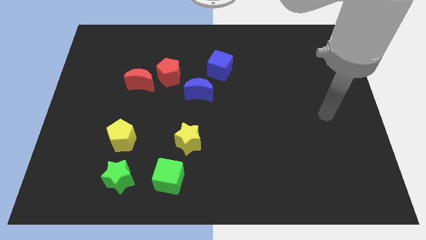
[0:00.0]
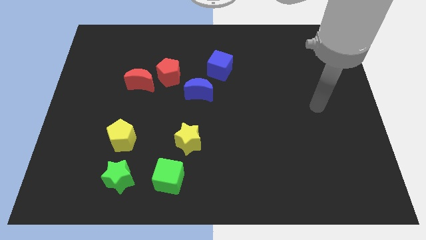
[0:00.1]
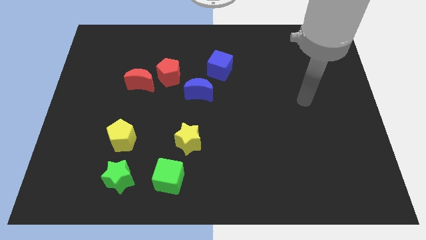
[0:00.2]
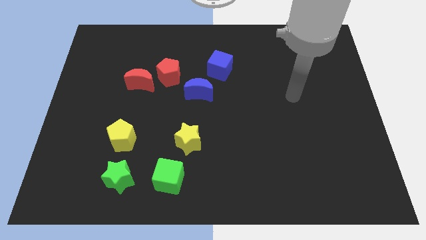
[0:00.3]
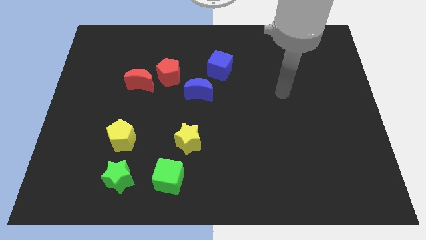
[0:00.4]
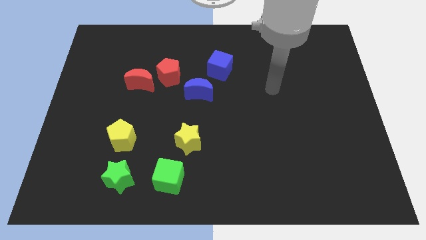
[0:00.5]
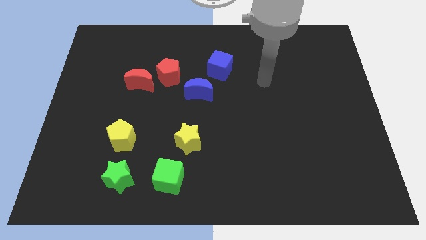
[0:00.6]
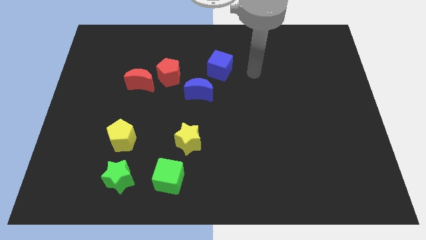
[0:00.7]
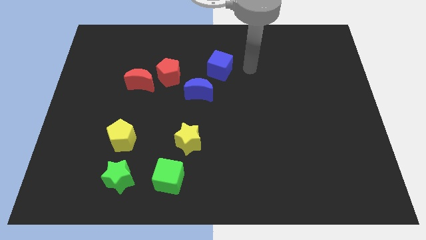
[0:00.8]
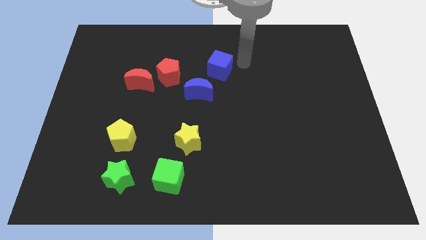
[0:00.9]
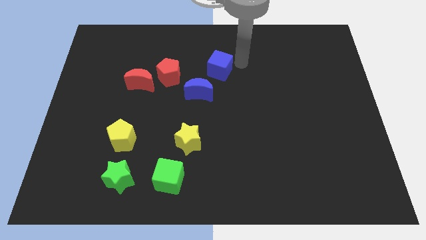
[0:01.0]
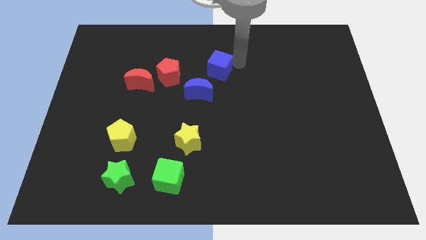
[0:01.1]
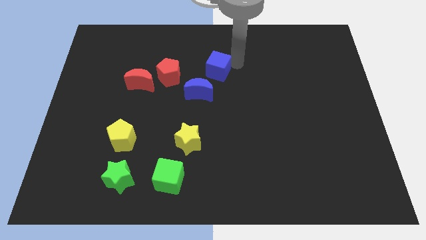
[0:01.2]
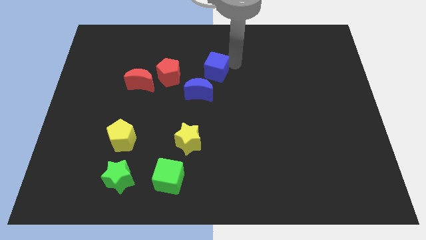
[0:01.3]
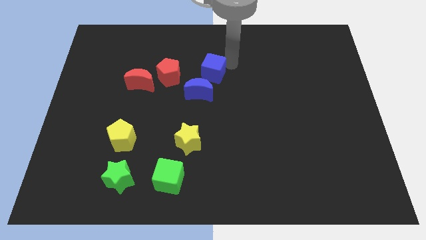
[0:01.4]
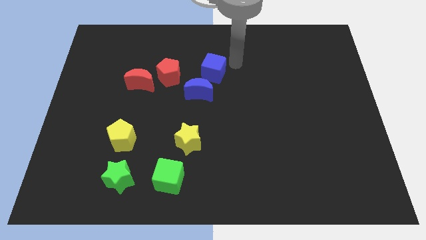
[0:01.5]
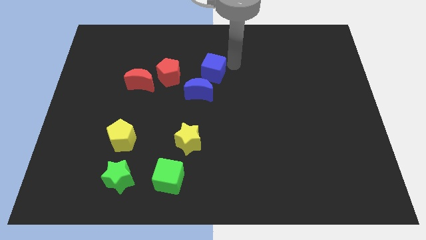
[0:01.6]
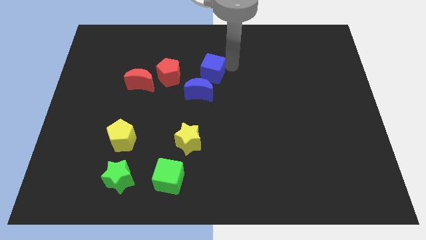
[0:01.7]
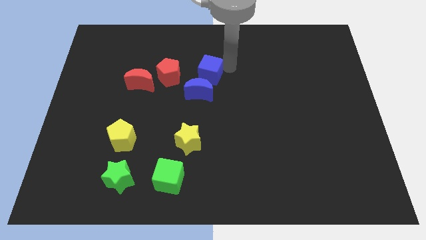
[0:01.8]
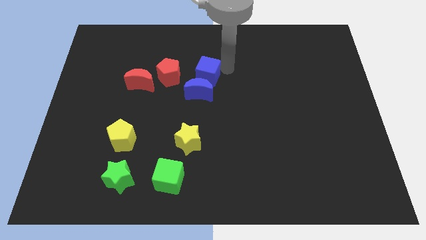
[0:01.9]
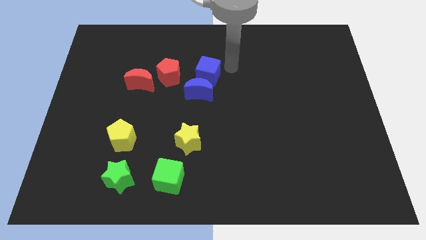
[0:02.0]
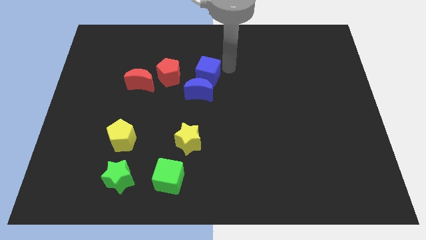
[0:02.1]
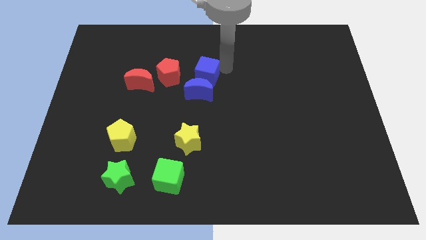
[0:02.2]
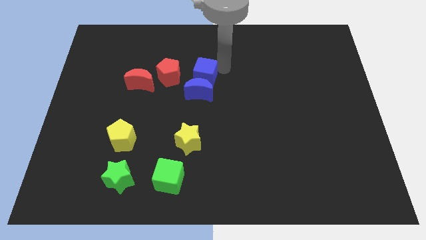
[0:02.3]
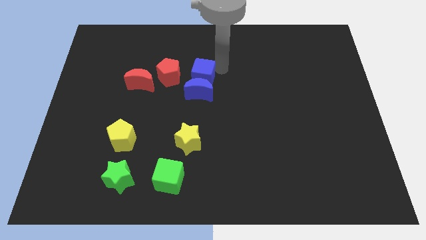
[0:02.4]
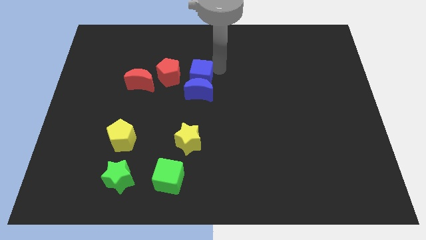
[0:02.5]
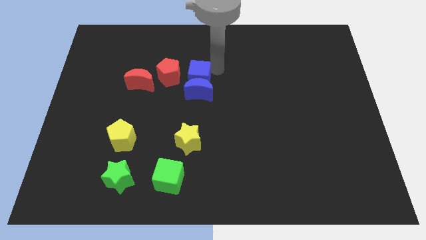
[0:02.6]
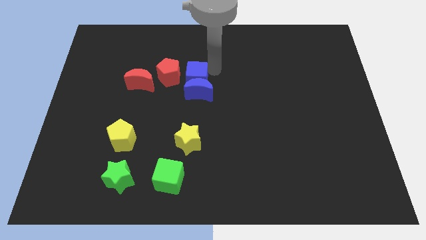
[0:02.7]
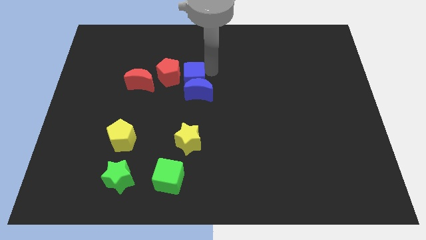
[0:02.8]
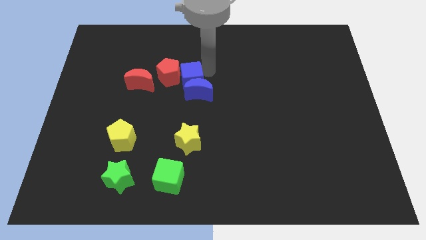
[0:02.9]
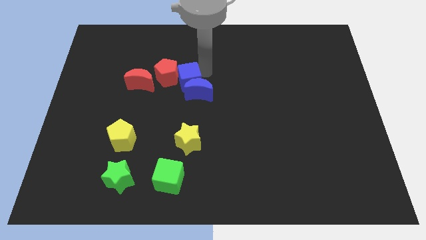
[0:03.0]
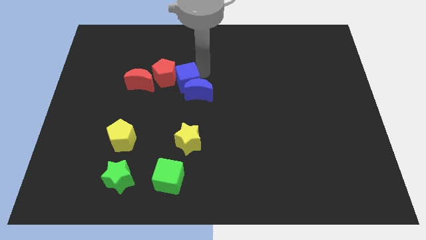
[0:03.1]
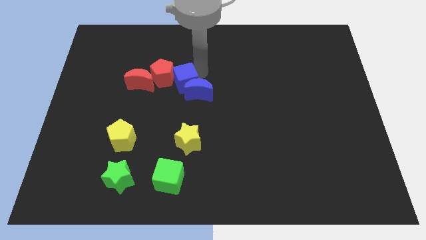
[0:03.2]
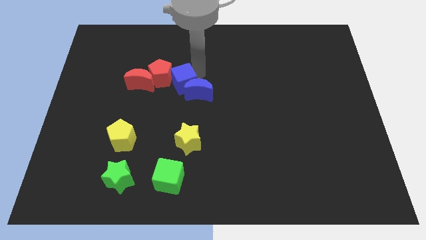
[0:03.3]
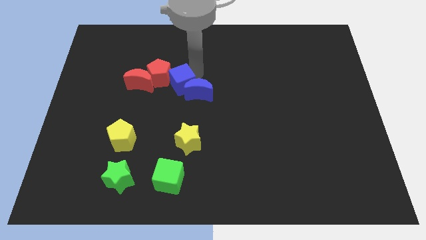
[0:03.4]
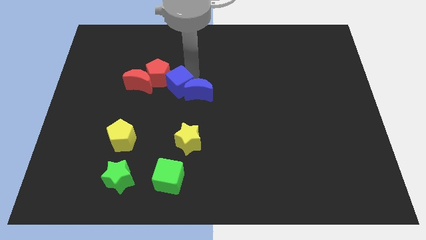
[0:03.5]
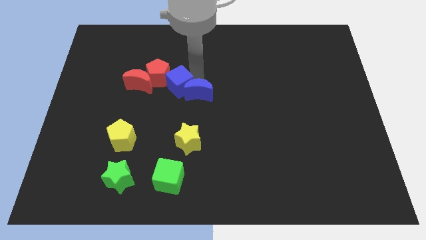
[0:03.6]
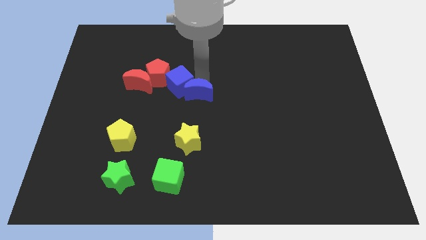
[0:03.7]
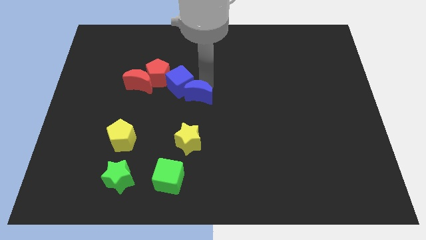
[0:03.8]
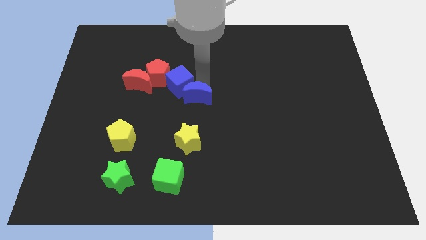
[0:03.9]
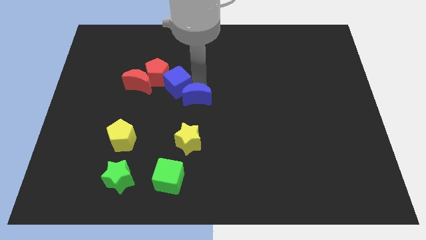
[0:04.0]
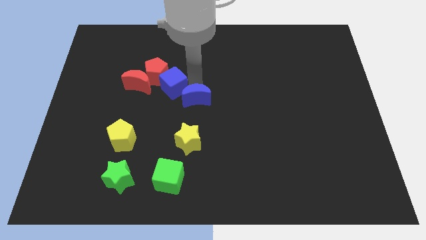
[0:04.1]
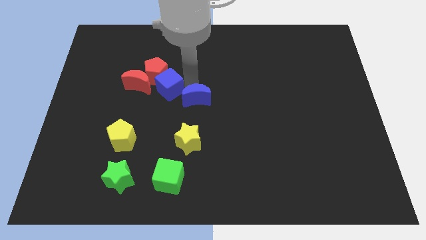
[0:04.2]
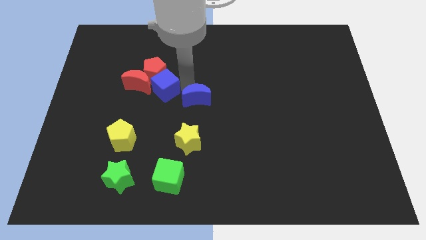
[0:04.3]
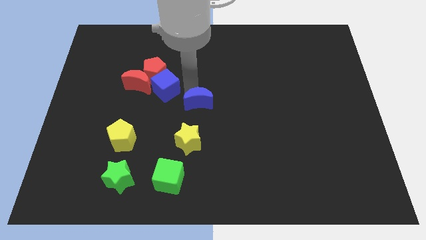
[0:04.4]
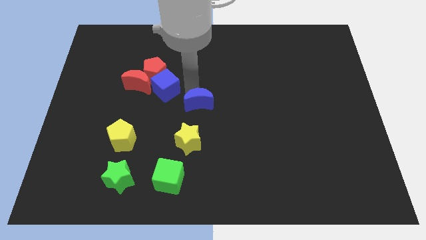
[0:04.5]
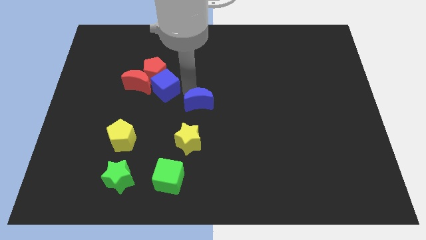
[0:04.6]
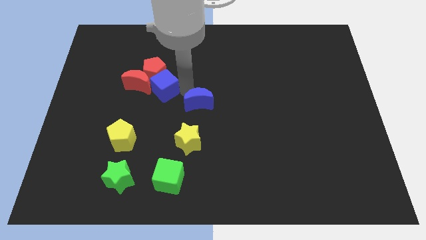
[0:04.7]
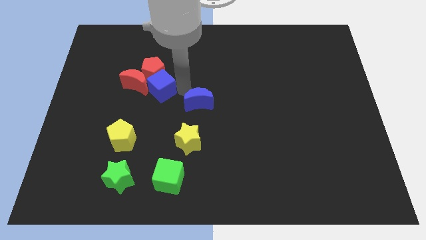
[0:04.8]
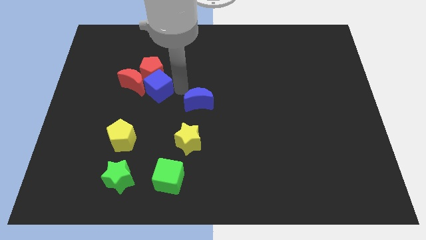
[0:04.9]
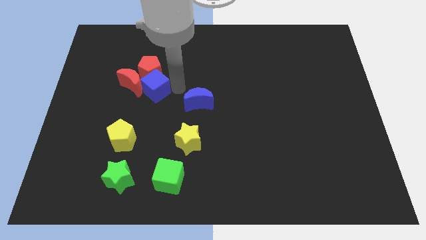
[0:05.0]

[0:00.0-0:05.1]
push the blue cube towards the red moon

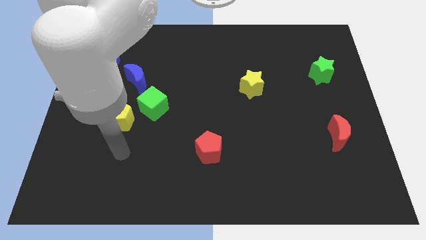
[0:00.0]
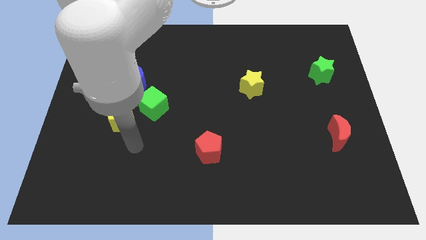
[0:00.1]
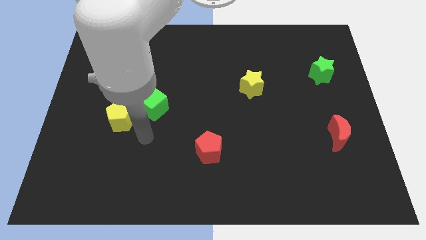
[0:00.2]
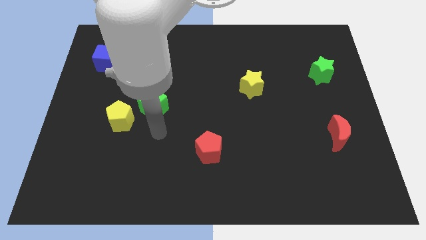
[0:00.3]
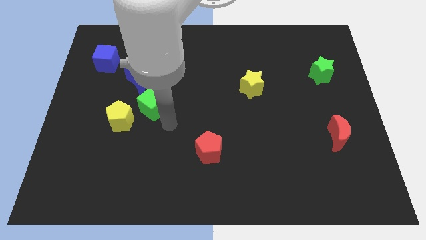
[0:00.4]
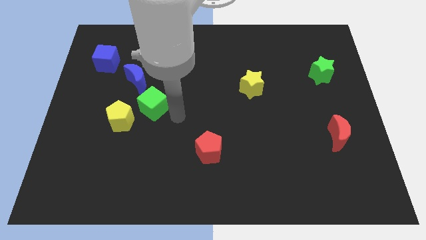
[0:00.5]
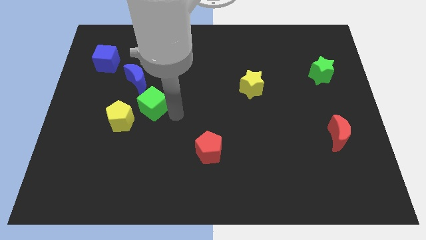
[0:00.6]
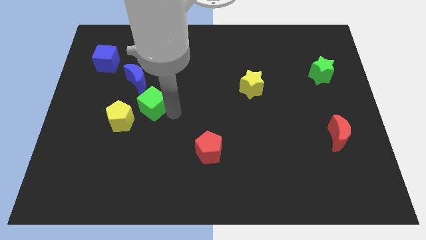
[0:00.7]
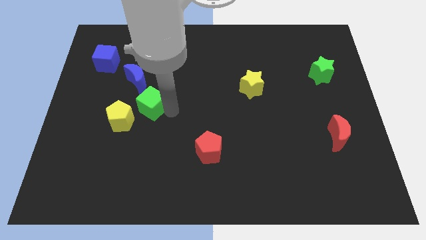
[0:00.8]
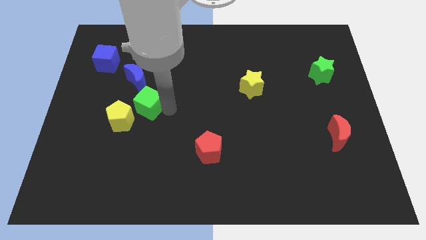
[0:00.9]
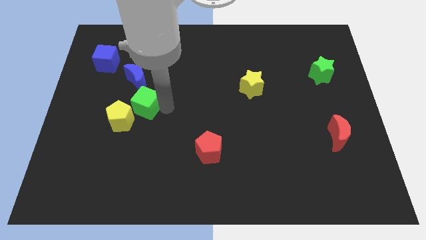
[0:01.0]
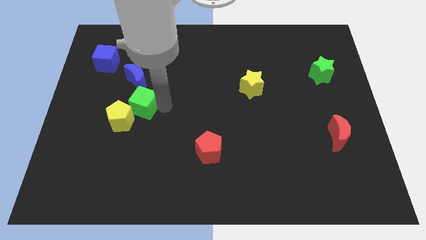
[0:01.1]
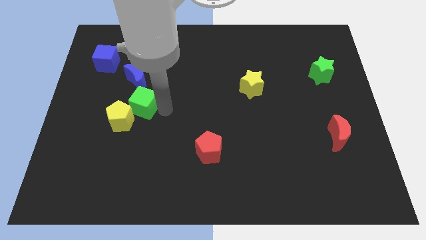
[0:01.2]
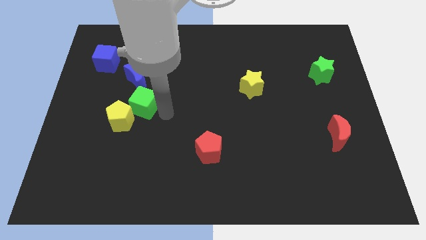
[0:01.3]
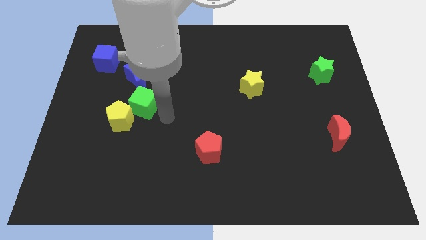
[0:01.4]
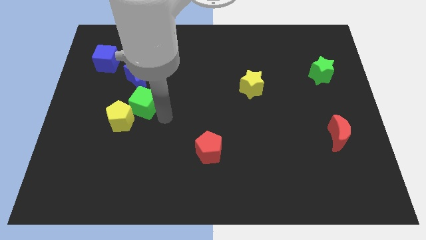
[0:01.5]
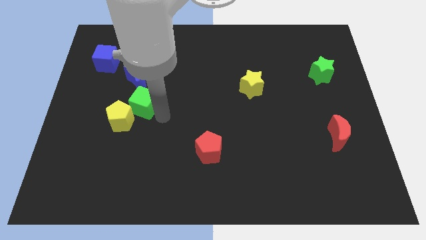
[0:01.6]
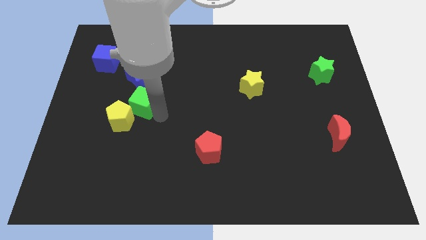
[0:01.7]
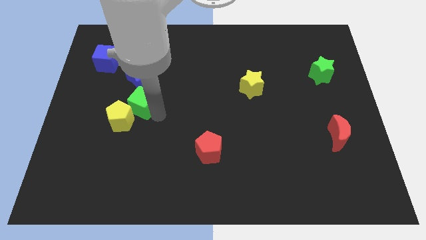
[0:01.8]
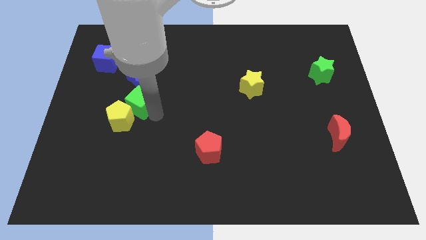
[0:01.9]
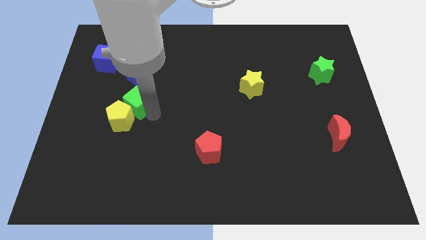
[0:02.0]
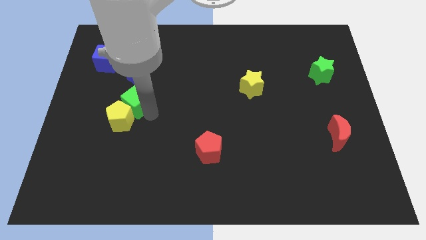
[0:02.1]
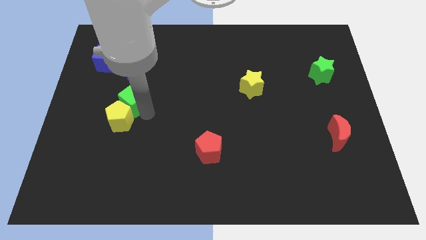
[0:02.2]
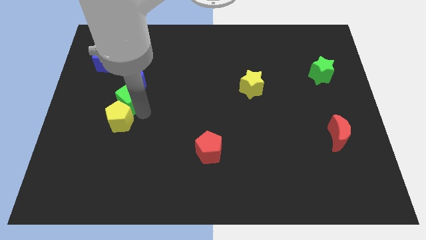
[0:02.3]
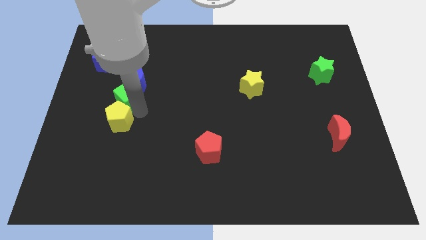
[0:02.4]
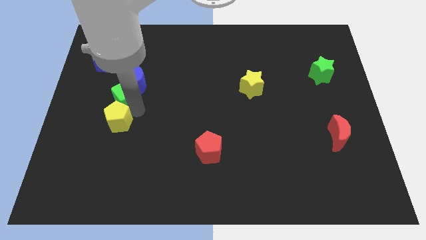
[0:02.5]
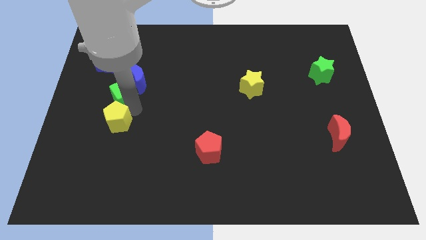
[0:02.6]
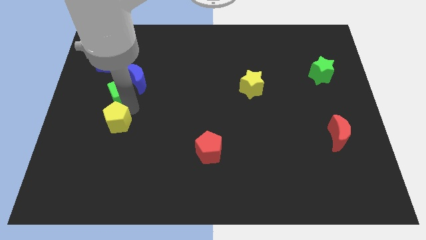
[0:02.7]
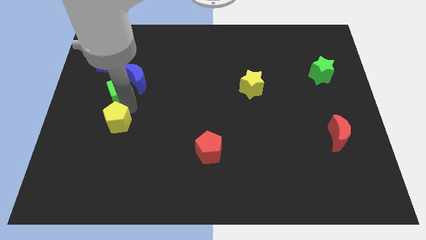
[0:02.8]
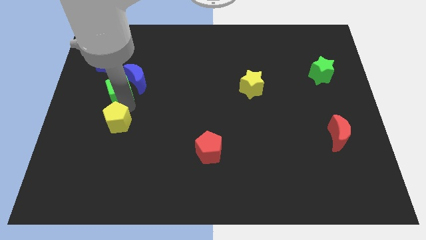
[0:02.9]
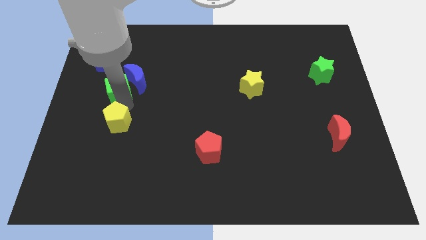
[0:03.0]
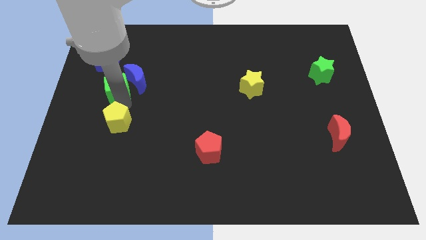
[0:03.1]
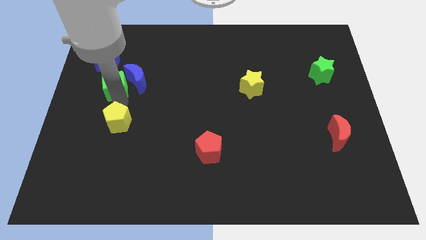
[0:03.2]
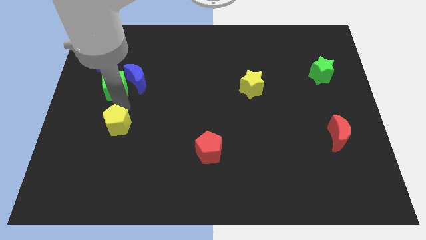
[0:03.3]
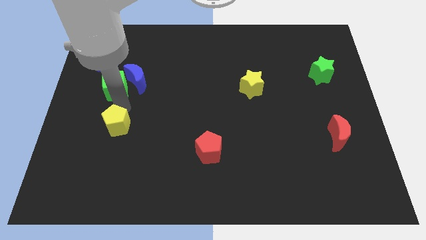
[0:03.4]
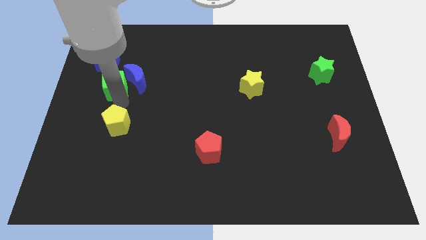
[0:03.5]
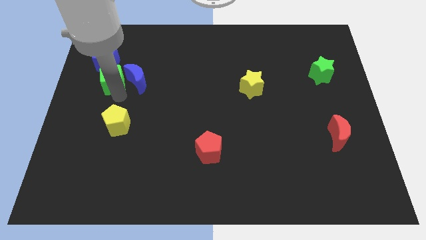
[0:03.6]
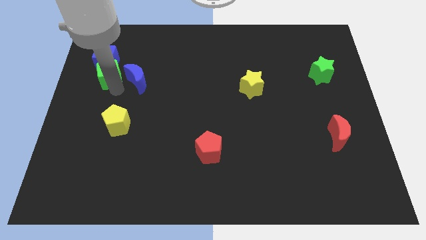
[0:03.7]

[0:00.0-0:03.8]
move the green cube close to the blue cube
